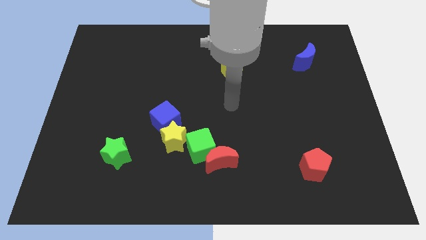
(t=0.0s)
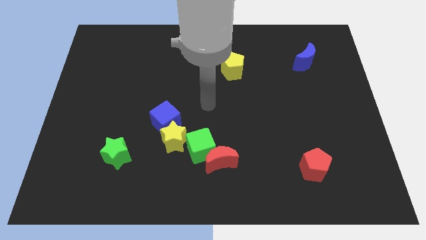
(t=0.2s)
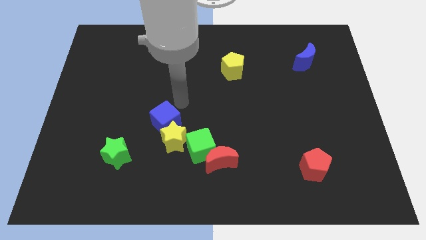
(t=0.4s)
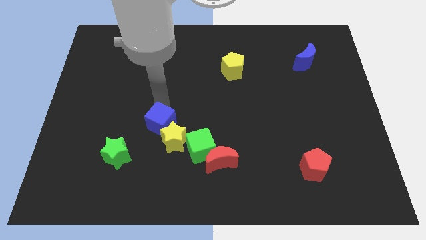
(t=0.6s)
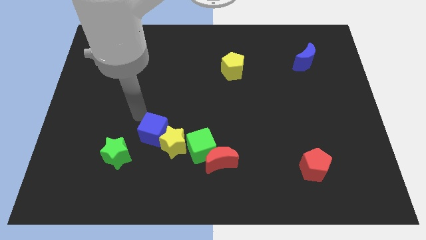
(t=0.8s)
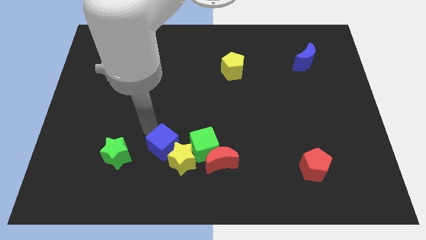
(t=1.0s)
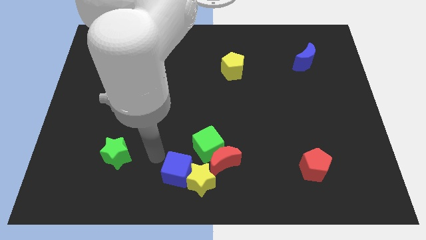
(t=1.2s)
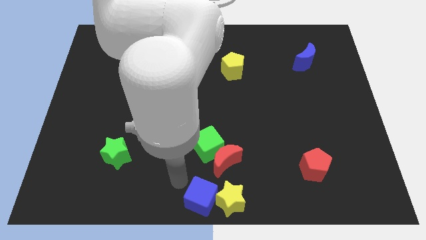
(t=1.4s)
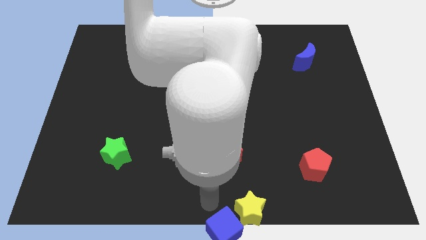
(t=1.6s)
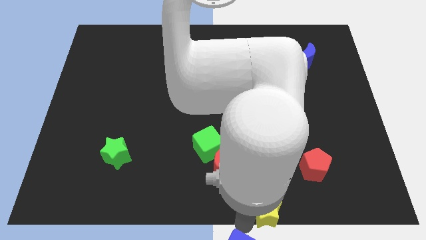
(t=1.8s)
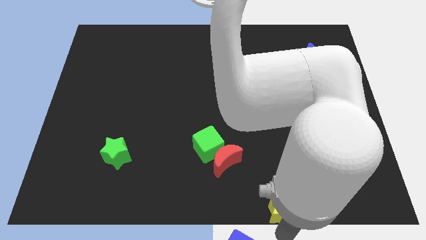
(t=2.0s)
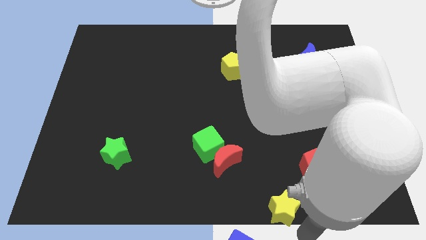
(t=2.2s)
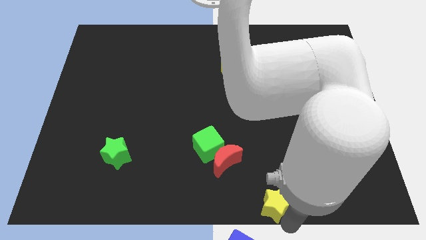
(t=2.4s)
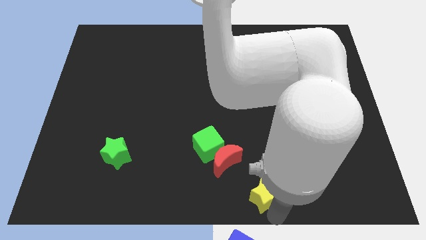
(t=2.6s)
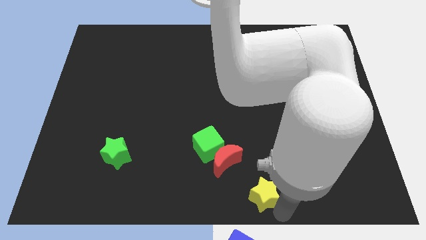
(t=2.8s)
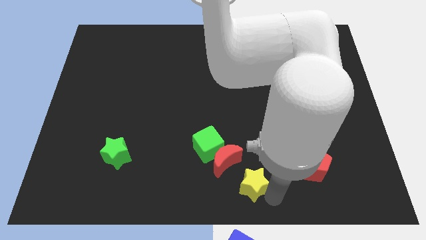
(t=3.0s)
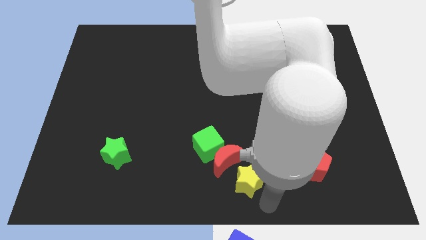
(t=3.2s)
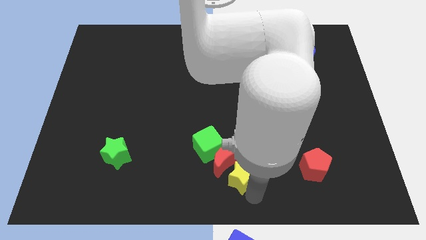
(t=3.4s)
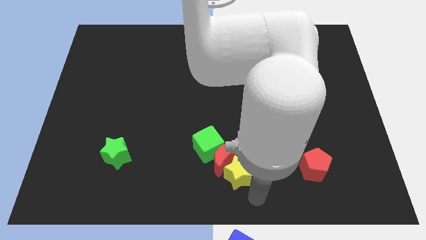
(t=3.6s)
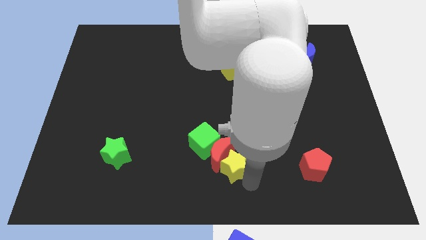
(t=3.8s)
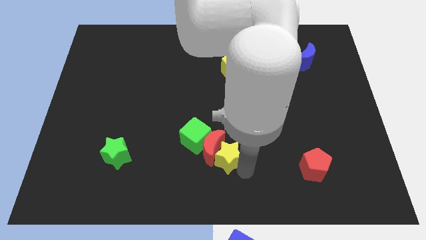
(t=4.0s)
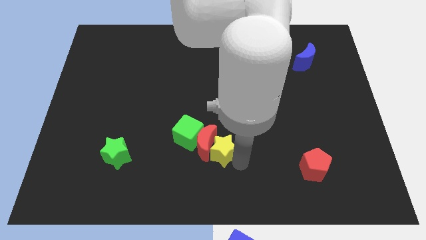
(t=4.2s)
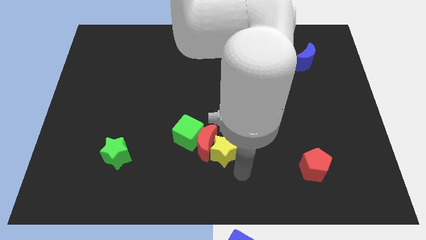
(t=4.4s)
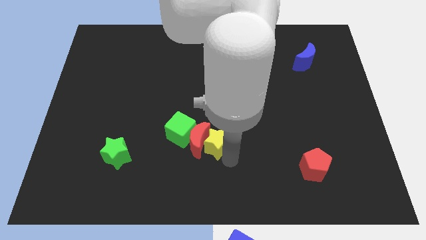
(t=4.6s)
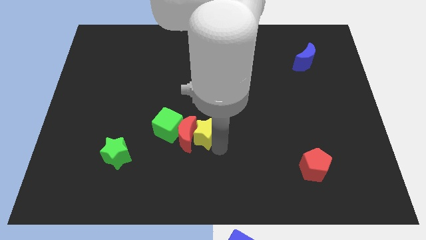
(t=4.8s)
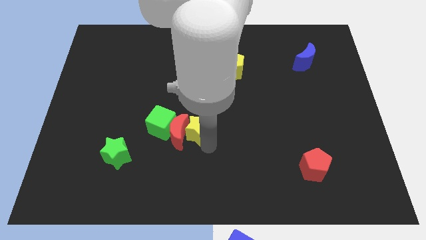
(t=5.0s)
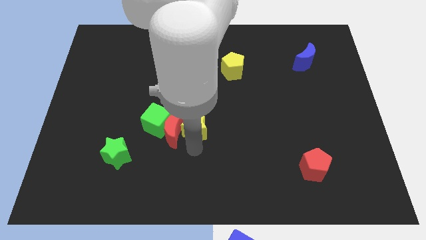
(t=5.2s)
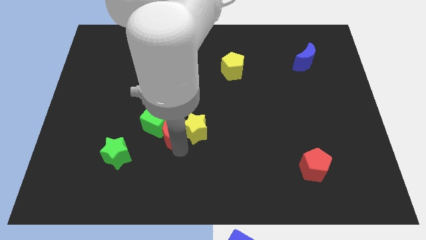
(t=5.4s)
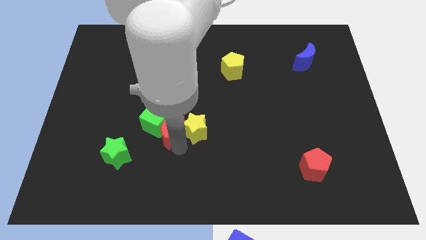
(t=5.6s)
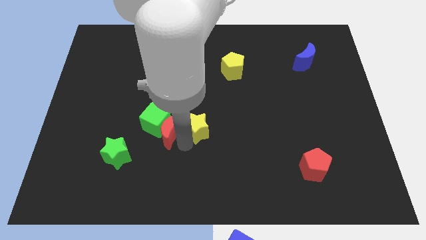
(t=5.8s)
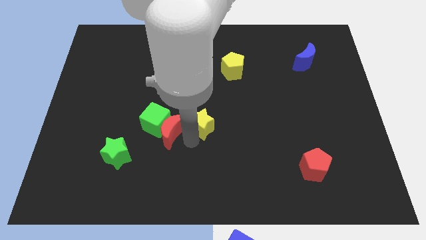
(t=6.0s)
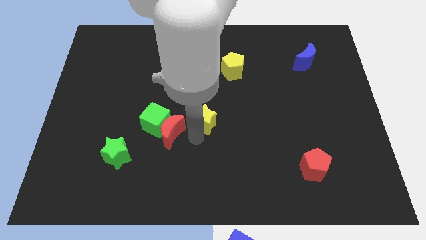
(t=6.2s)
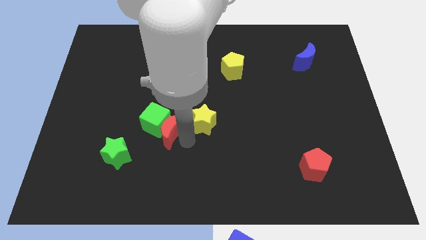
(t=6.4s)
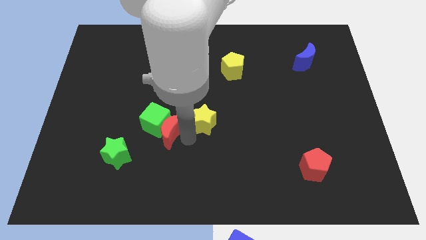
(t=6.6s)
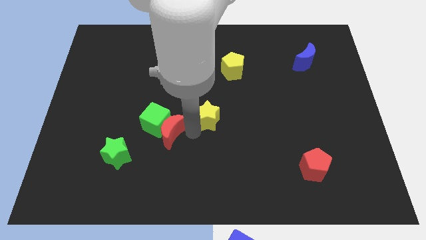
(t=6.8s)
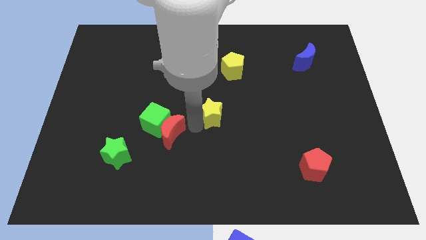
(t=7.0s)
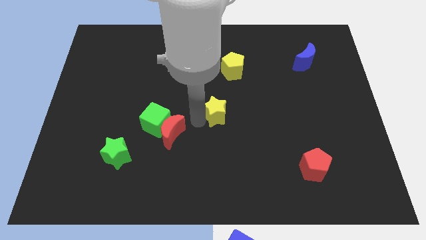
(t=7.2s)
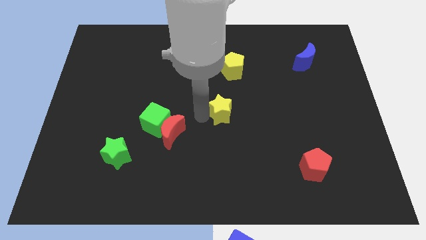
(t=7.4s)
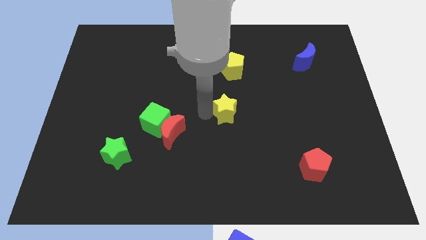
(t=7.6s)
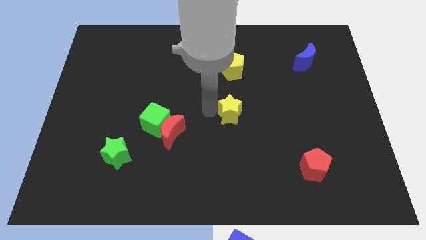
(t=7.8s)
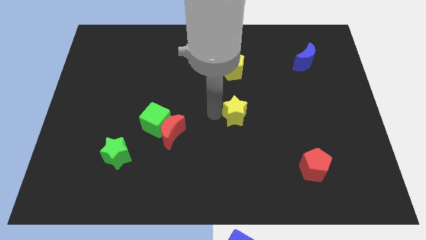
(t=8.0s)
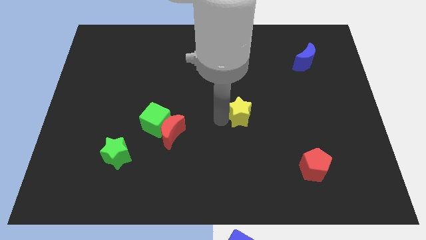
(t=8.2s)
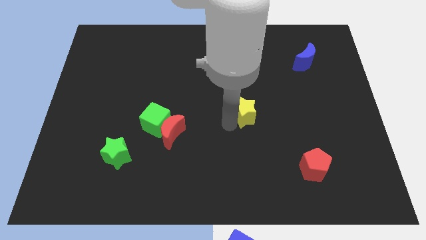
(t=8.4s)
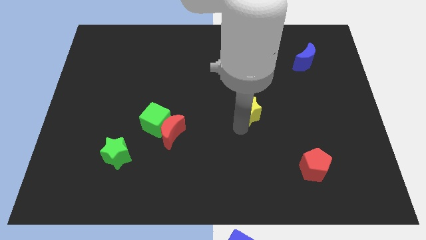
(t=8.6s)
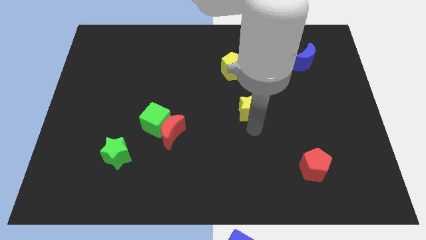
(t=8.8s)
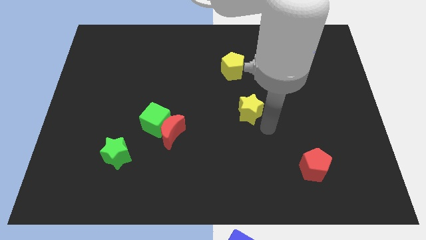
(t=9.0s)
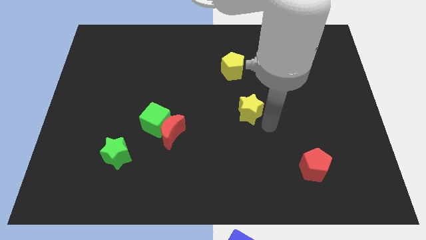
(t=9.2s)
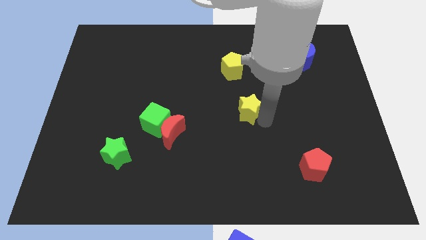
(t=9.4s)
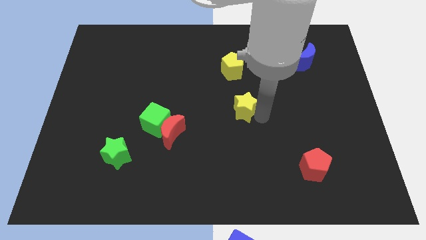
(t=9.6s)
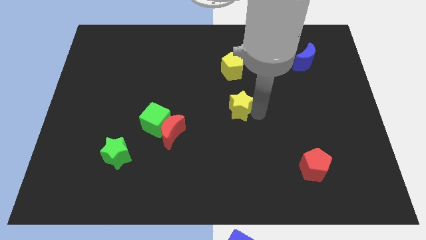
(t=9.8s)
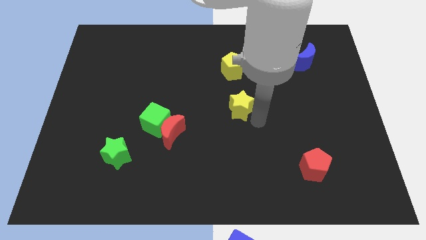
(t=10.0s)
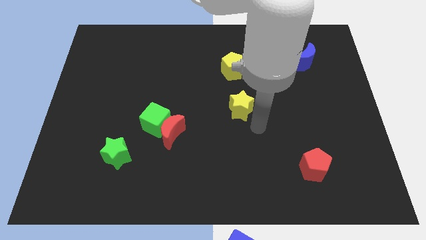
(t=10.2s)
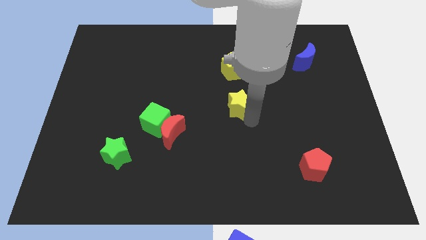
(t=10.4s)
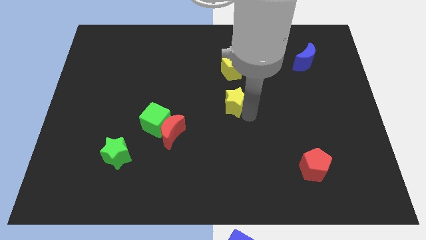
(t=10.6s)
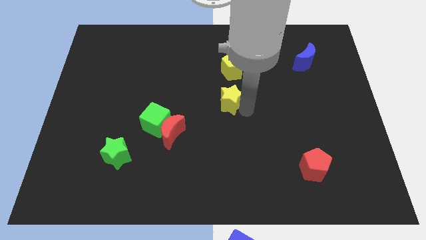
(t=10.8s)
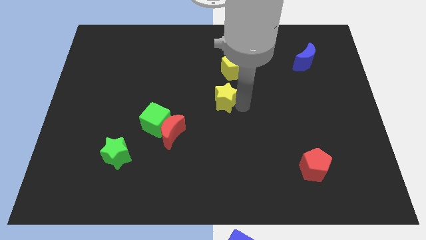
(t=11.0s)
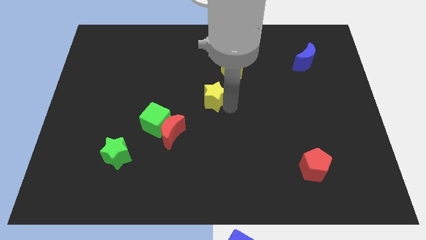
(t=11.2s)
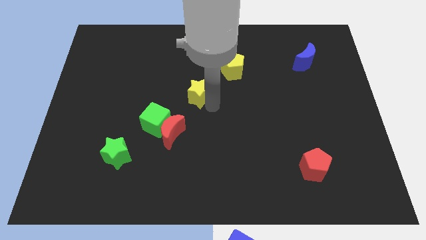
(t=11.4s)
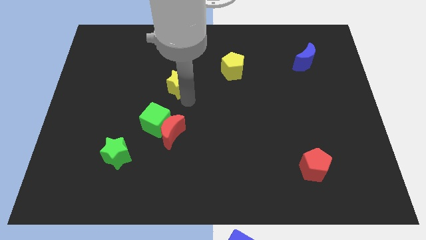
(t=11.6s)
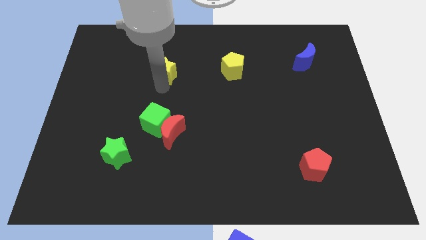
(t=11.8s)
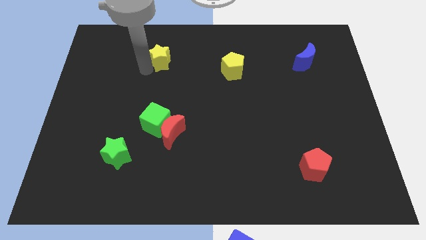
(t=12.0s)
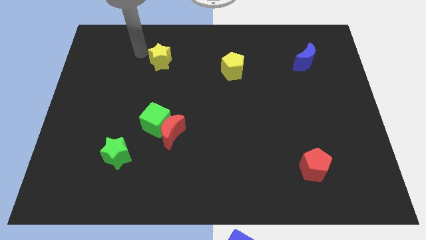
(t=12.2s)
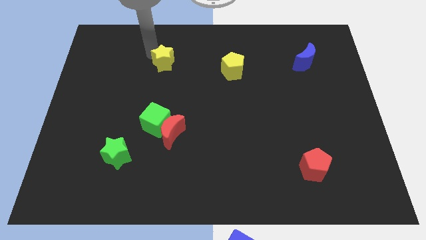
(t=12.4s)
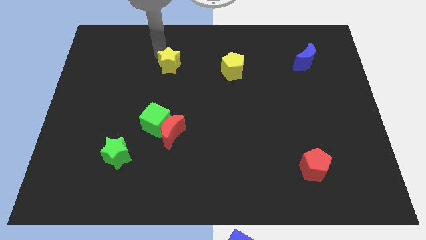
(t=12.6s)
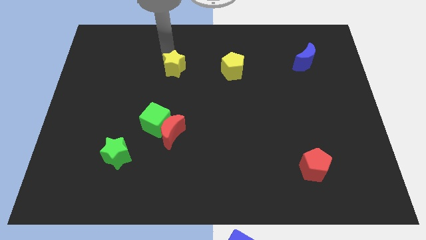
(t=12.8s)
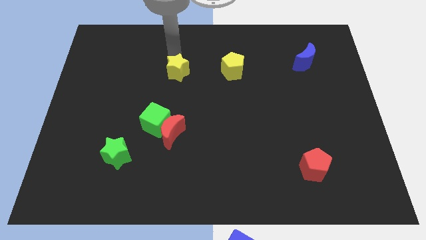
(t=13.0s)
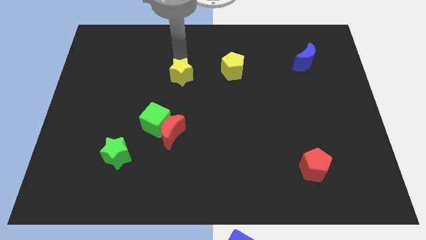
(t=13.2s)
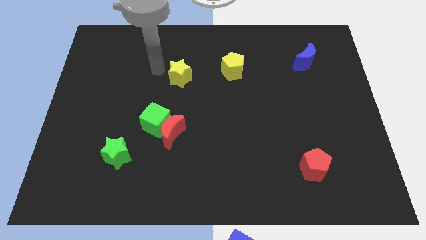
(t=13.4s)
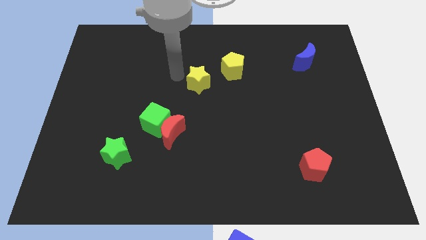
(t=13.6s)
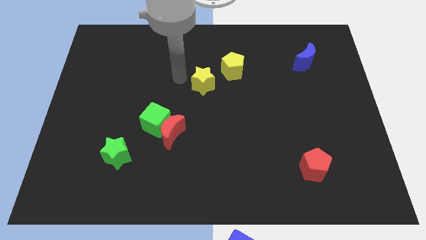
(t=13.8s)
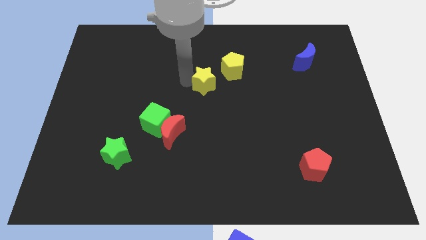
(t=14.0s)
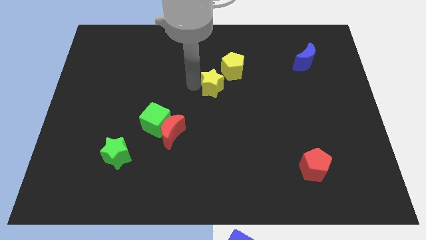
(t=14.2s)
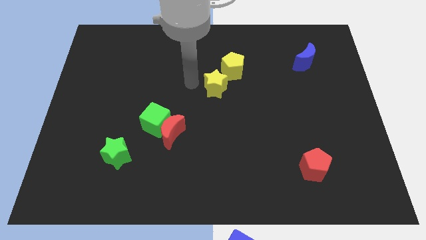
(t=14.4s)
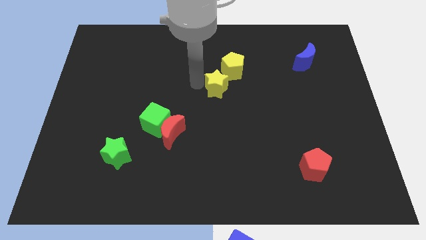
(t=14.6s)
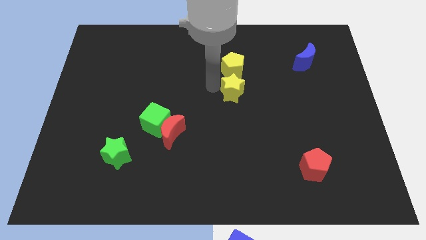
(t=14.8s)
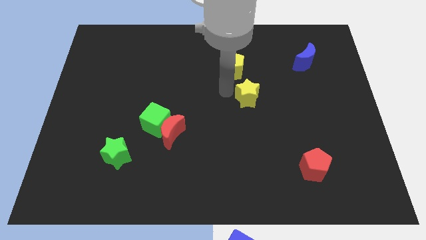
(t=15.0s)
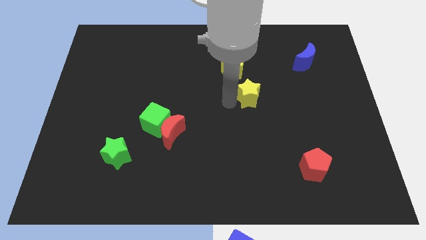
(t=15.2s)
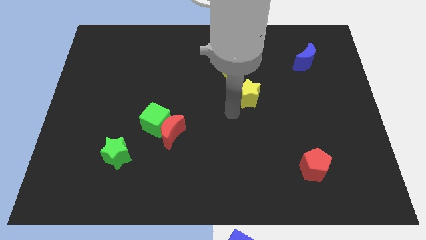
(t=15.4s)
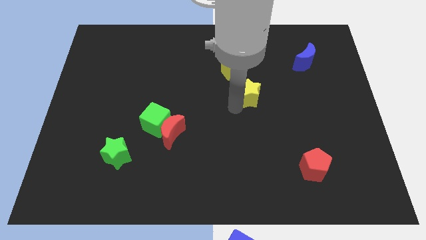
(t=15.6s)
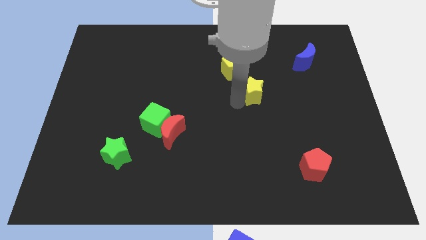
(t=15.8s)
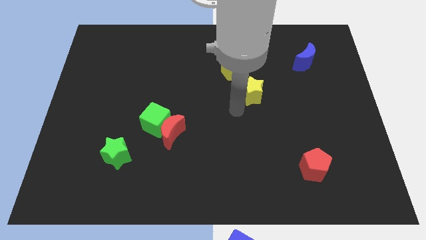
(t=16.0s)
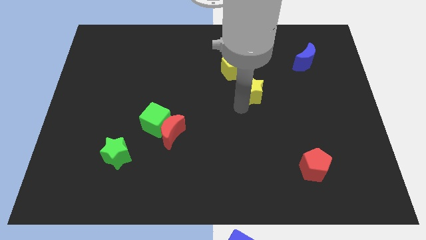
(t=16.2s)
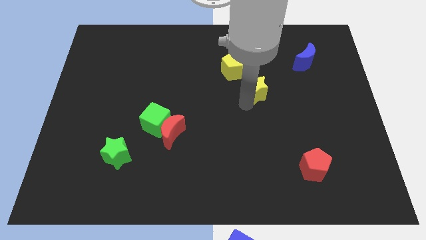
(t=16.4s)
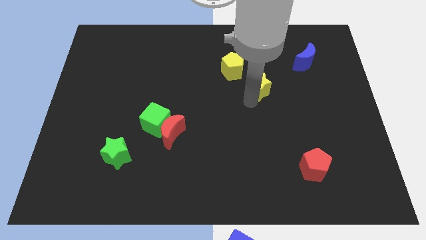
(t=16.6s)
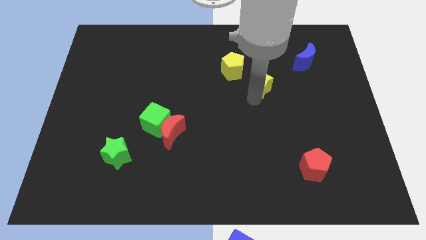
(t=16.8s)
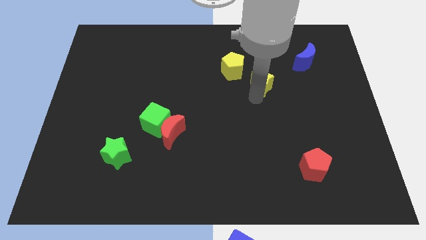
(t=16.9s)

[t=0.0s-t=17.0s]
slide the yellow star to the right side of the yellow pentagon
